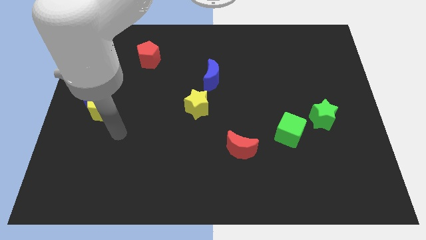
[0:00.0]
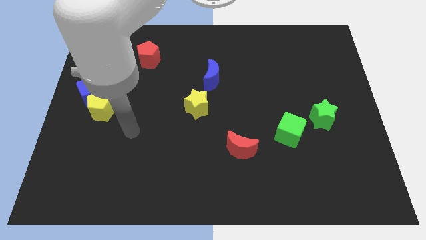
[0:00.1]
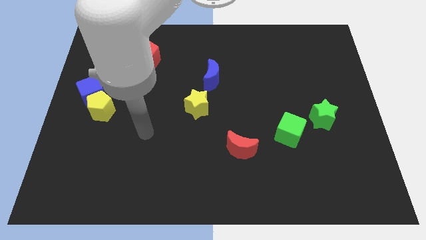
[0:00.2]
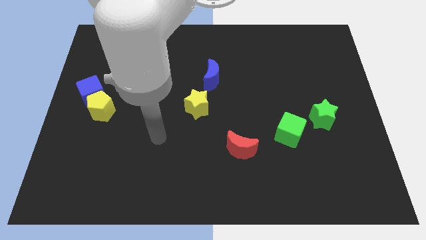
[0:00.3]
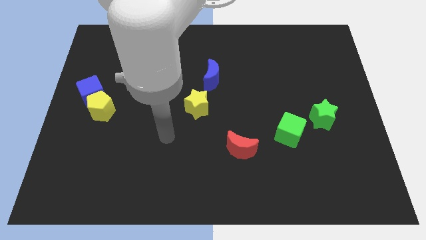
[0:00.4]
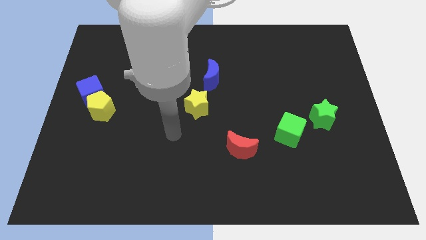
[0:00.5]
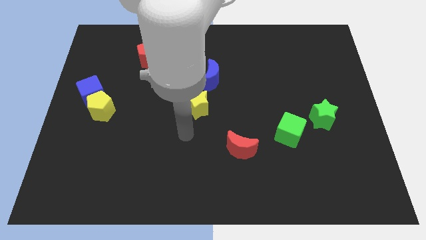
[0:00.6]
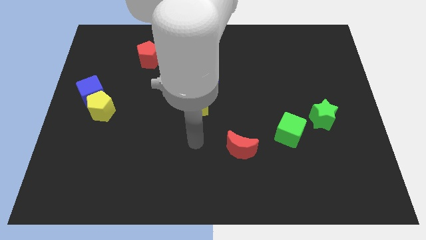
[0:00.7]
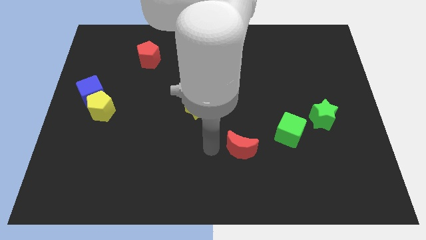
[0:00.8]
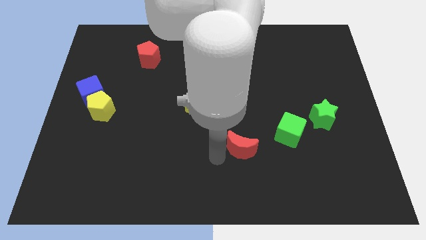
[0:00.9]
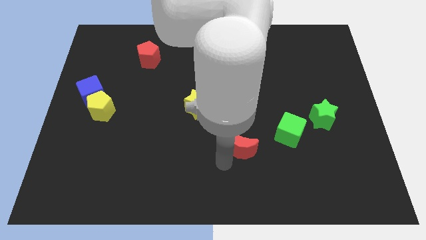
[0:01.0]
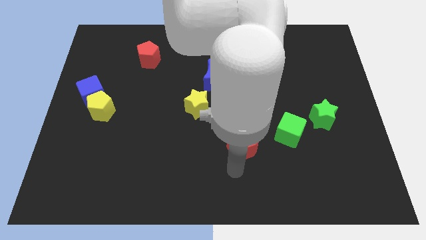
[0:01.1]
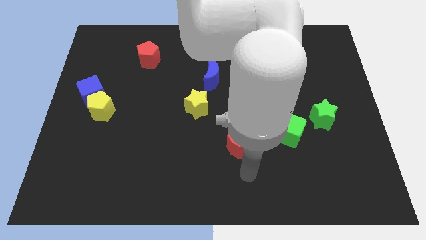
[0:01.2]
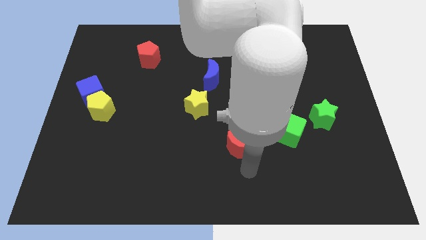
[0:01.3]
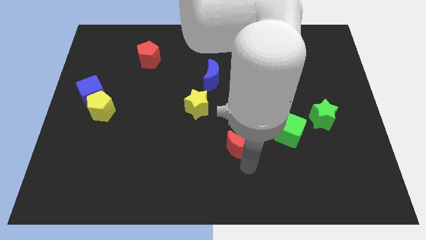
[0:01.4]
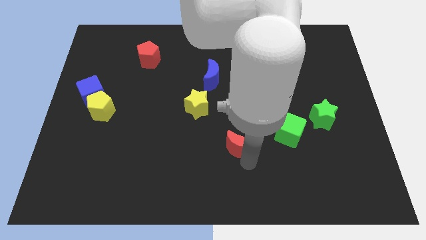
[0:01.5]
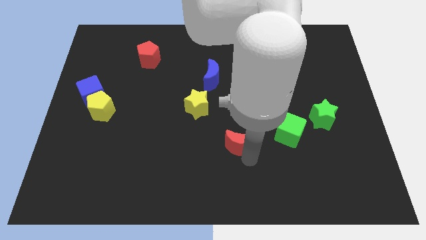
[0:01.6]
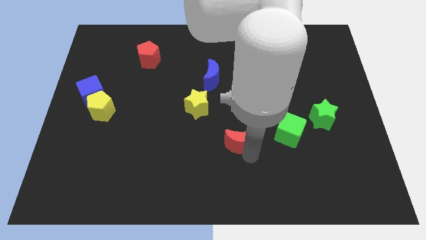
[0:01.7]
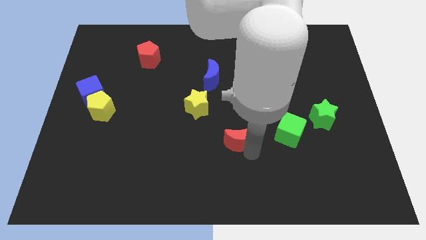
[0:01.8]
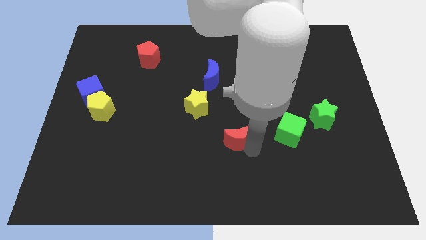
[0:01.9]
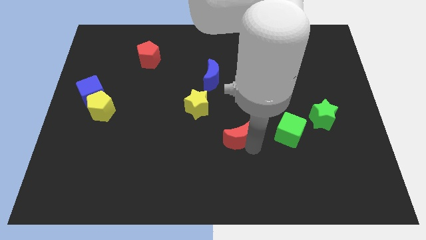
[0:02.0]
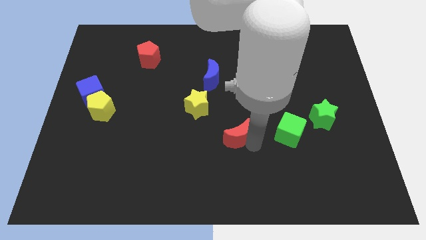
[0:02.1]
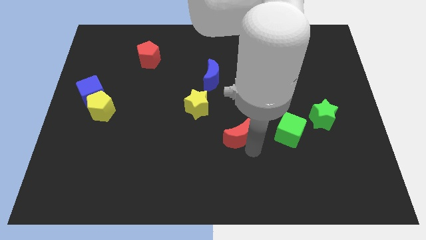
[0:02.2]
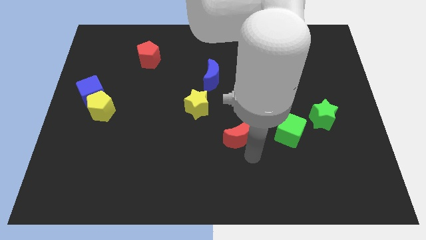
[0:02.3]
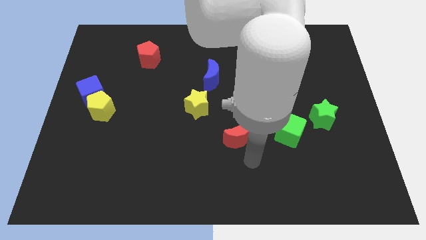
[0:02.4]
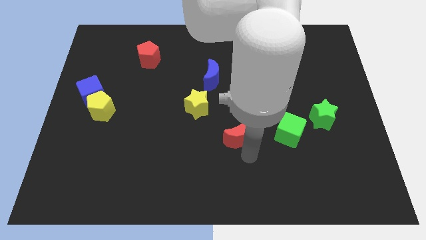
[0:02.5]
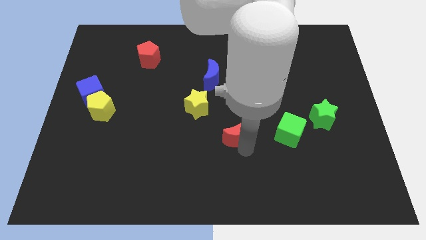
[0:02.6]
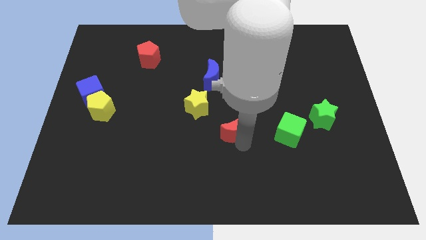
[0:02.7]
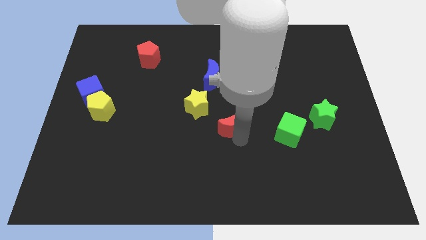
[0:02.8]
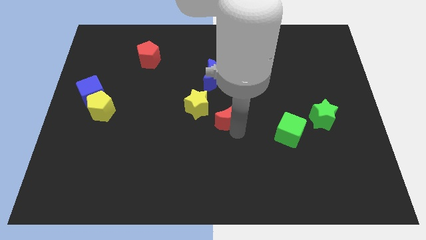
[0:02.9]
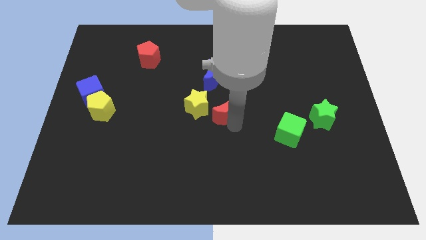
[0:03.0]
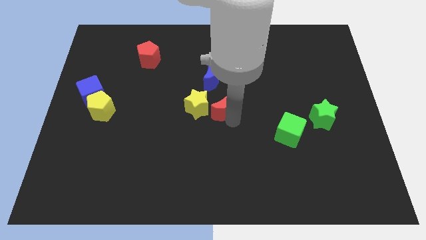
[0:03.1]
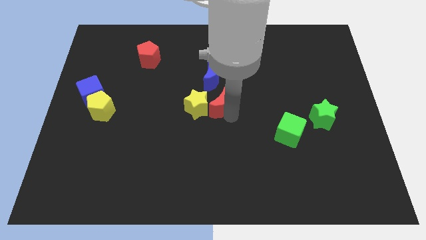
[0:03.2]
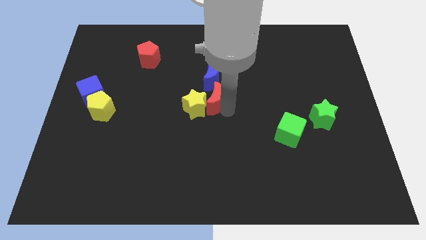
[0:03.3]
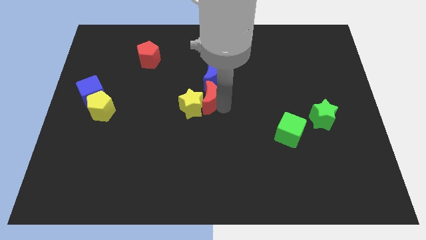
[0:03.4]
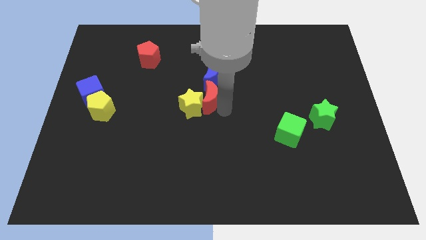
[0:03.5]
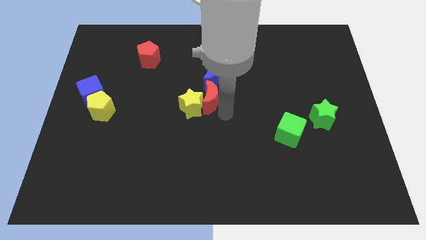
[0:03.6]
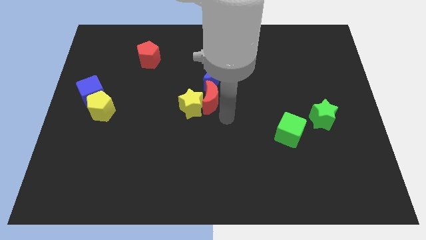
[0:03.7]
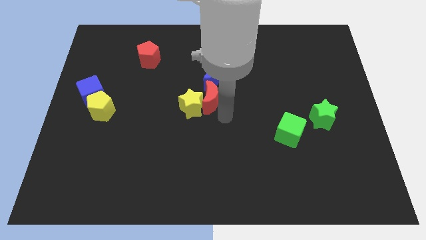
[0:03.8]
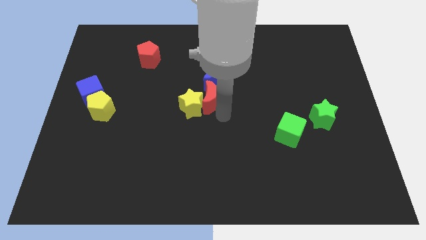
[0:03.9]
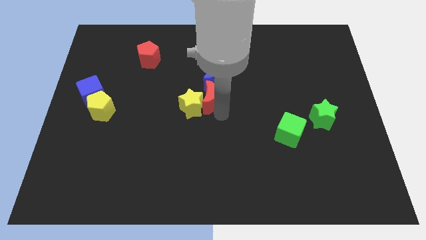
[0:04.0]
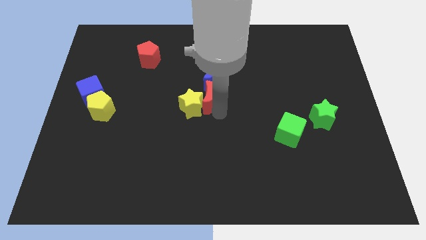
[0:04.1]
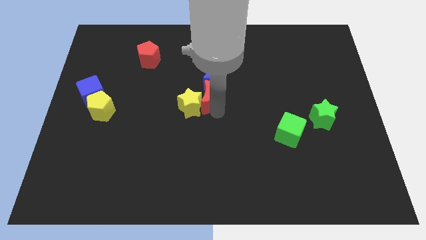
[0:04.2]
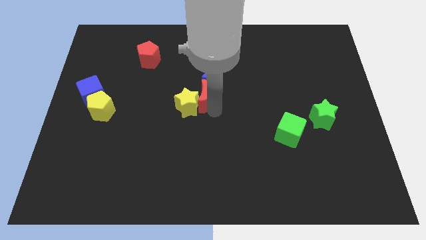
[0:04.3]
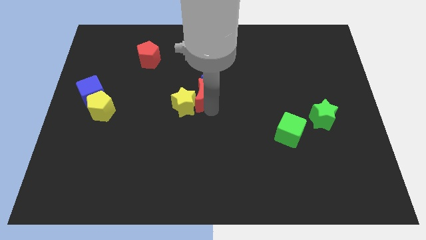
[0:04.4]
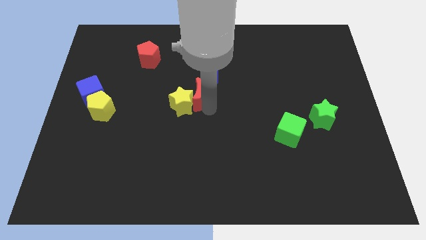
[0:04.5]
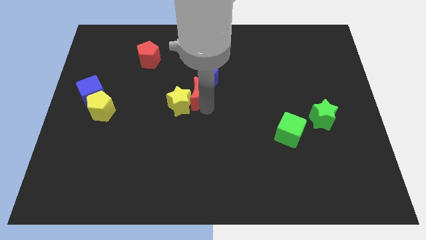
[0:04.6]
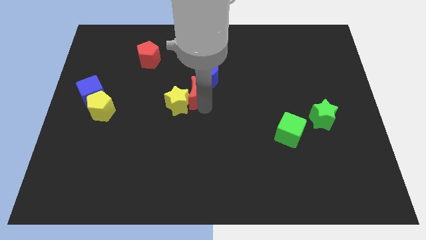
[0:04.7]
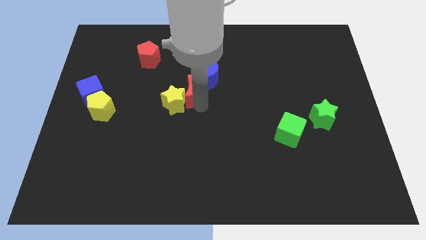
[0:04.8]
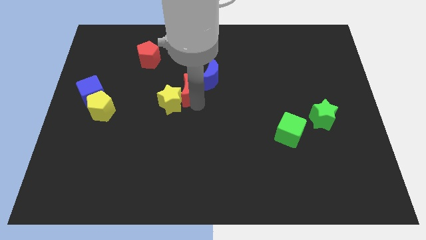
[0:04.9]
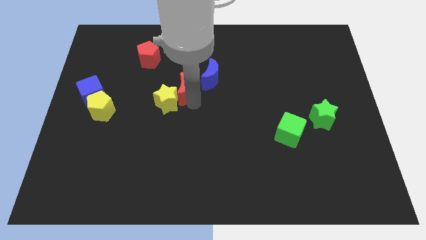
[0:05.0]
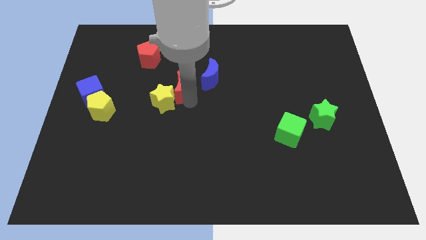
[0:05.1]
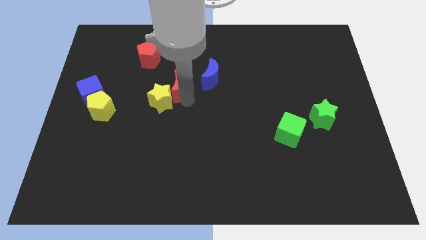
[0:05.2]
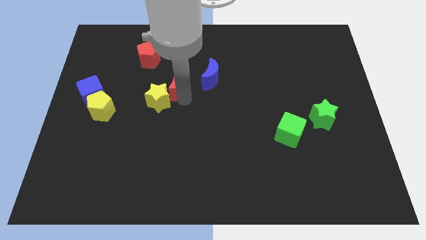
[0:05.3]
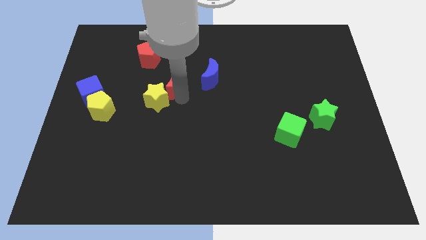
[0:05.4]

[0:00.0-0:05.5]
put the red moon to the bottom right of the red pentagon

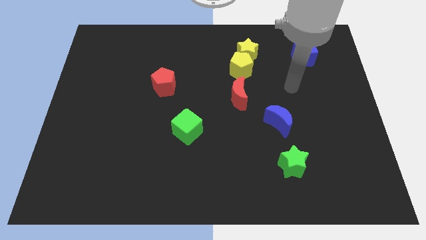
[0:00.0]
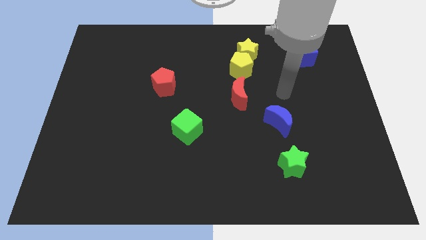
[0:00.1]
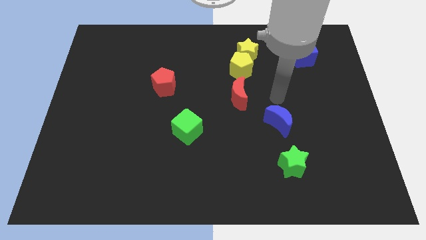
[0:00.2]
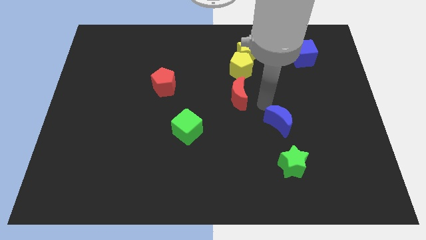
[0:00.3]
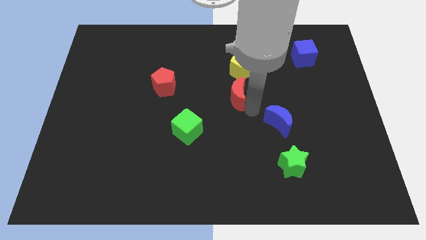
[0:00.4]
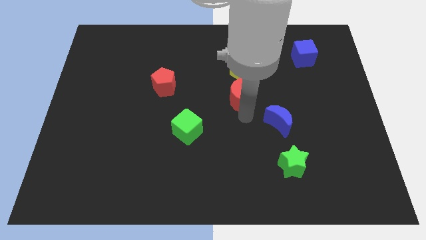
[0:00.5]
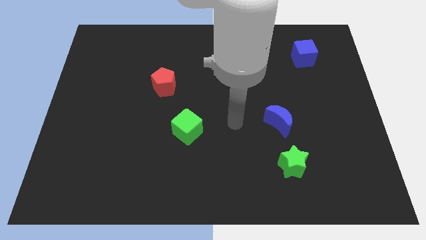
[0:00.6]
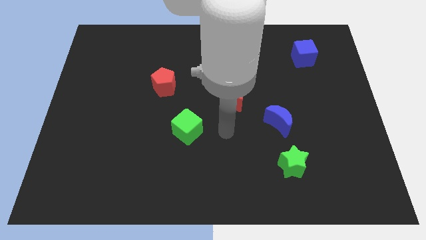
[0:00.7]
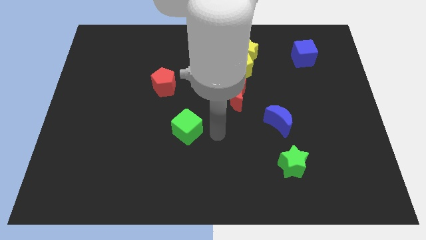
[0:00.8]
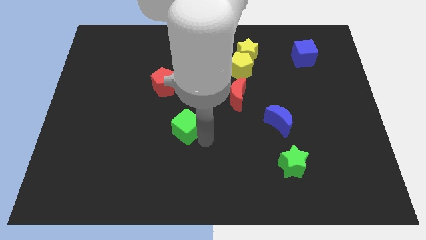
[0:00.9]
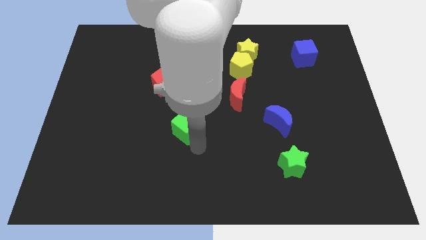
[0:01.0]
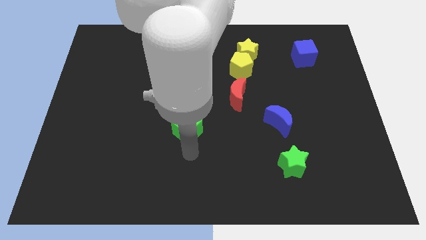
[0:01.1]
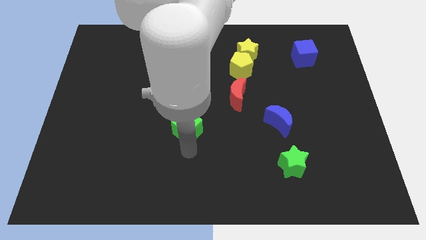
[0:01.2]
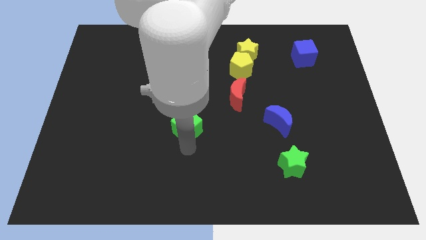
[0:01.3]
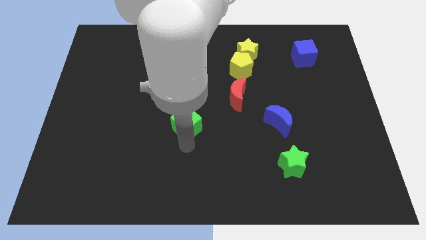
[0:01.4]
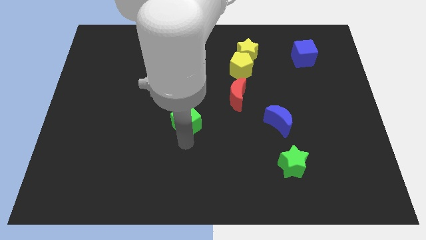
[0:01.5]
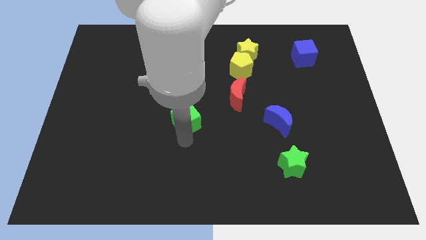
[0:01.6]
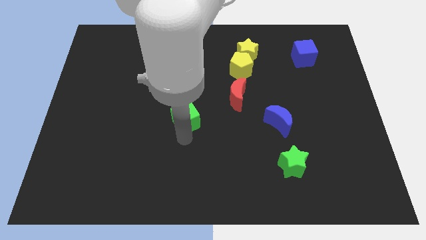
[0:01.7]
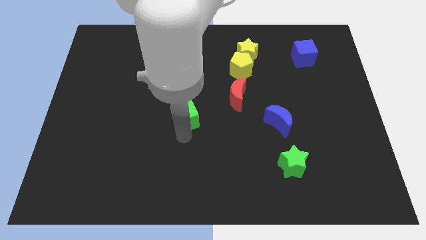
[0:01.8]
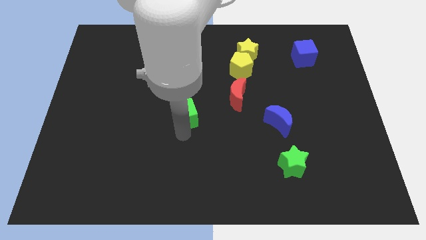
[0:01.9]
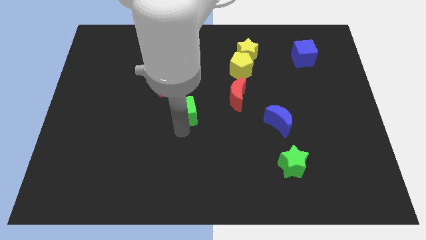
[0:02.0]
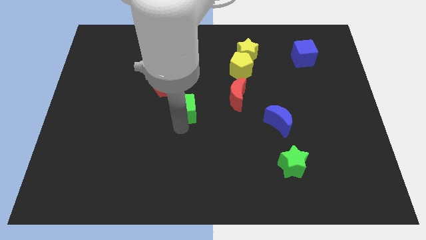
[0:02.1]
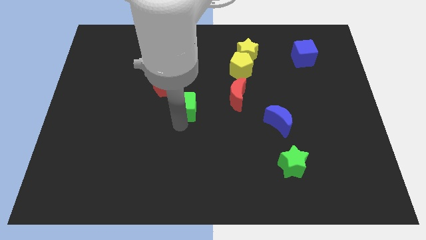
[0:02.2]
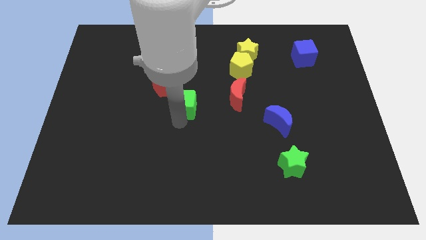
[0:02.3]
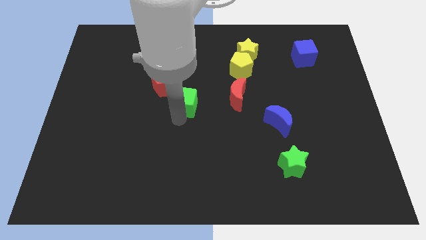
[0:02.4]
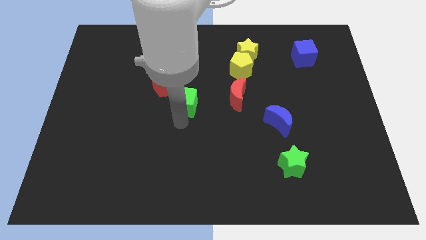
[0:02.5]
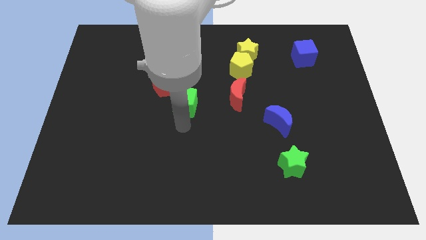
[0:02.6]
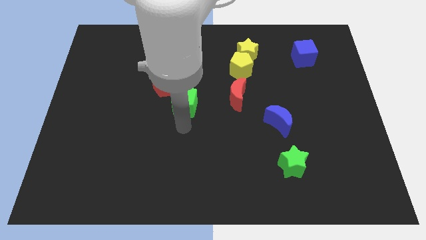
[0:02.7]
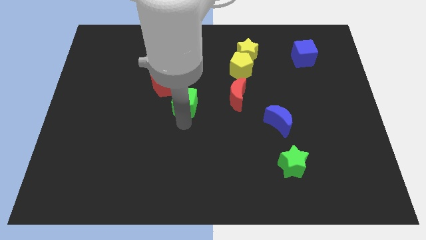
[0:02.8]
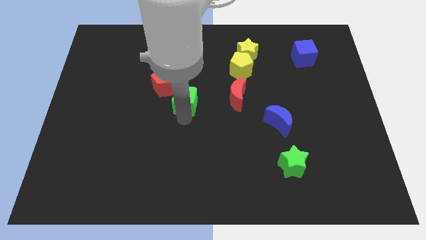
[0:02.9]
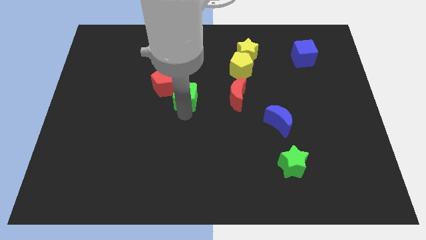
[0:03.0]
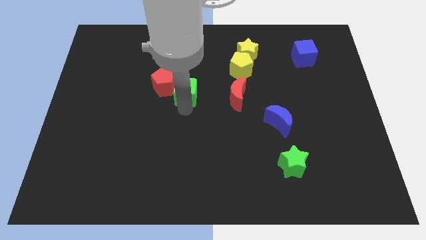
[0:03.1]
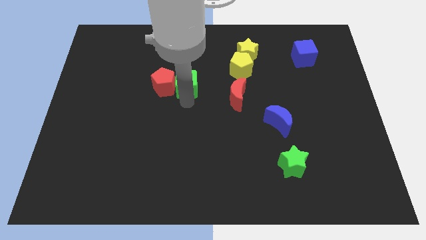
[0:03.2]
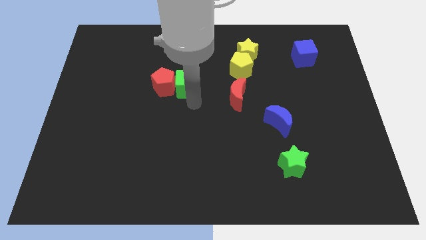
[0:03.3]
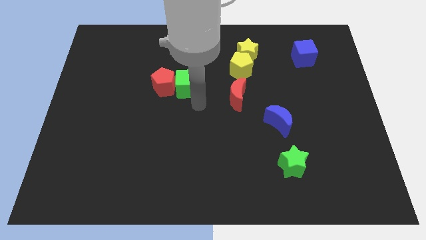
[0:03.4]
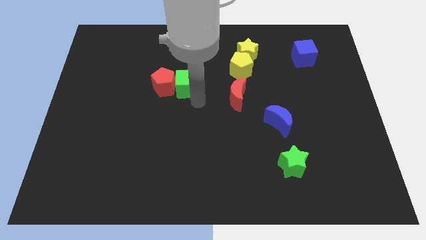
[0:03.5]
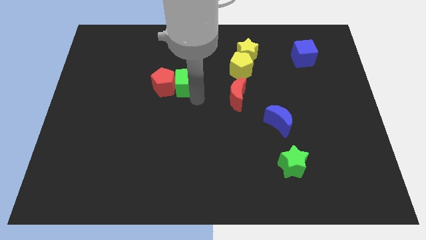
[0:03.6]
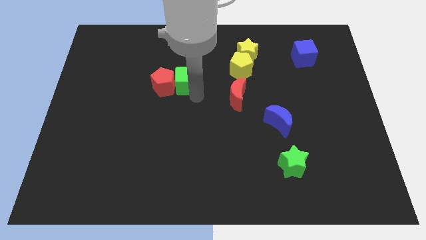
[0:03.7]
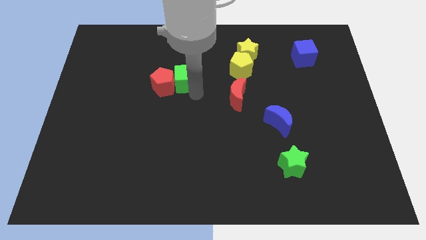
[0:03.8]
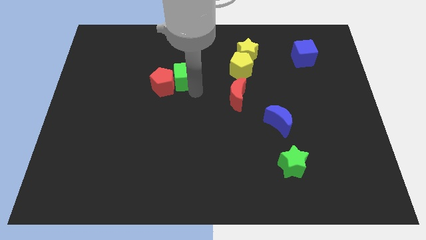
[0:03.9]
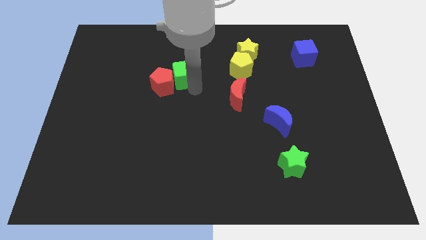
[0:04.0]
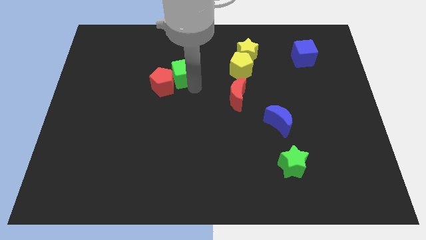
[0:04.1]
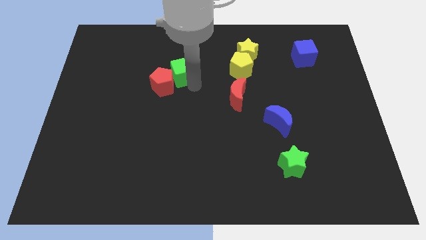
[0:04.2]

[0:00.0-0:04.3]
push the green cube to the top of the red pentagon
